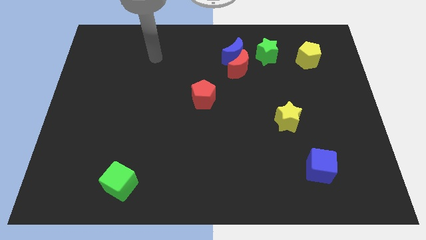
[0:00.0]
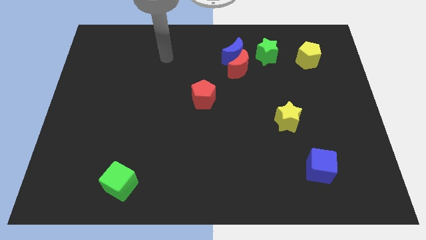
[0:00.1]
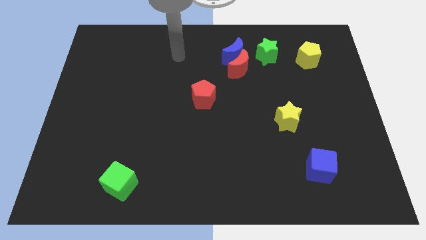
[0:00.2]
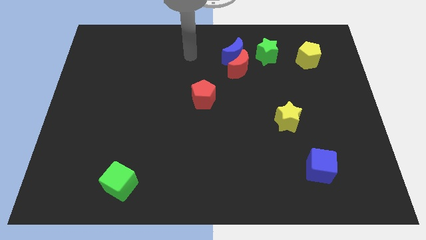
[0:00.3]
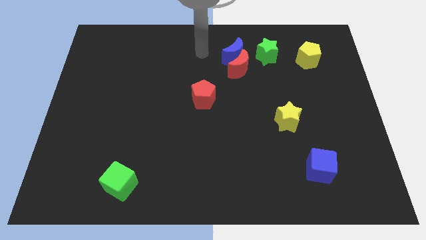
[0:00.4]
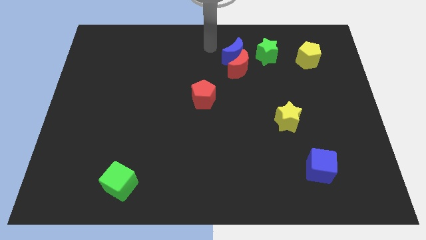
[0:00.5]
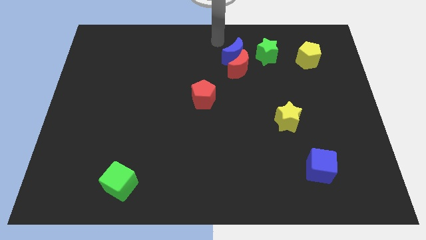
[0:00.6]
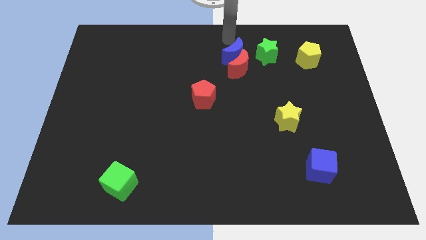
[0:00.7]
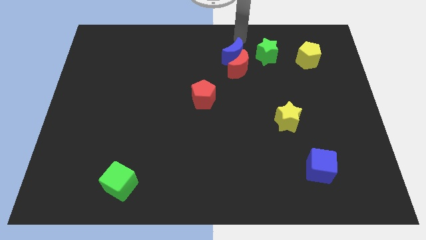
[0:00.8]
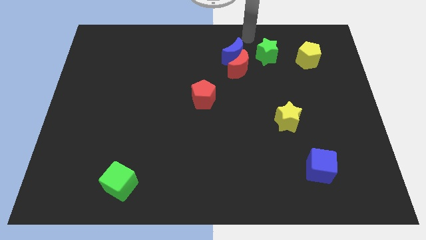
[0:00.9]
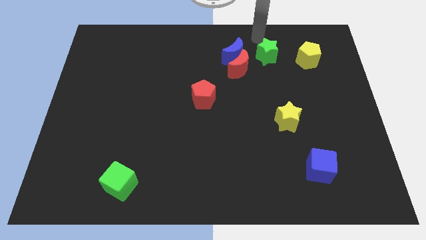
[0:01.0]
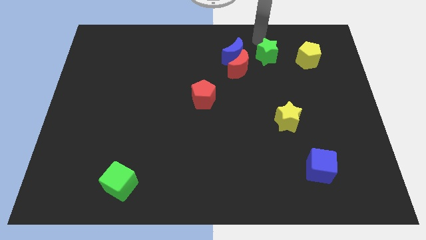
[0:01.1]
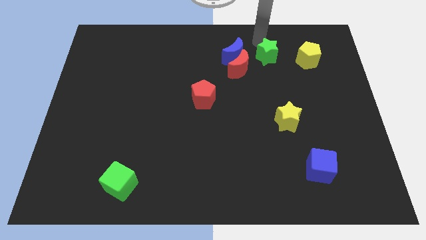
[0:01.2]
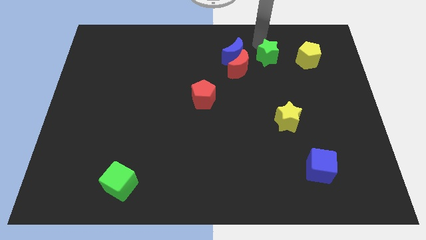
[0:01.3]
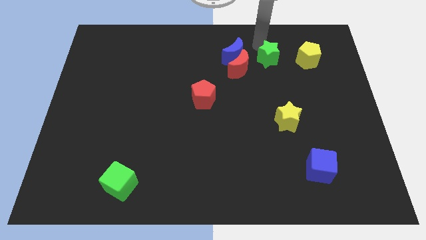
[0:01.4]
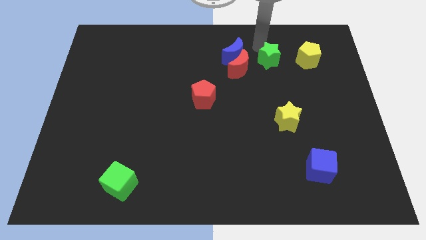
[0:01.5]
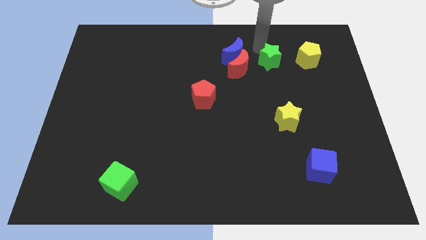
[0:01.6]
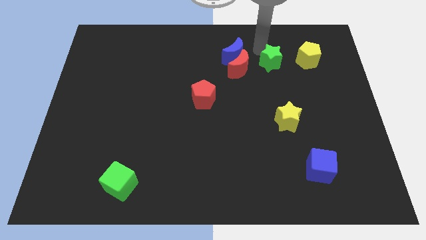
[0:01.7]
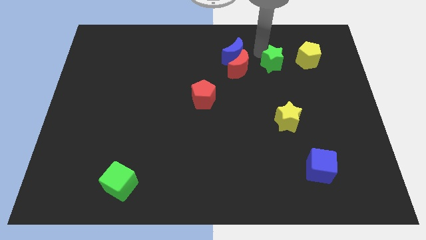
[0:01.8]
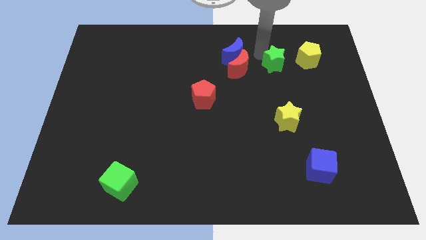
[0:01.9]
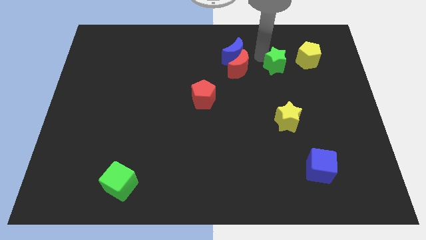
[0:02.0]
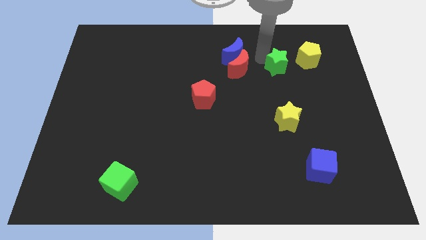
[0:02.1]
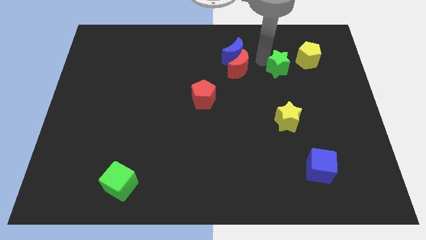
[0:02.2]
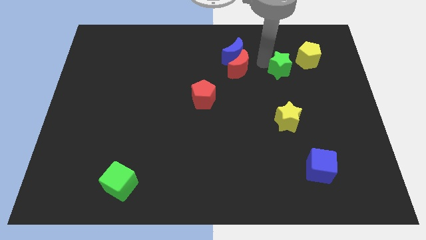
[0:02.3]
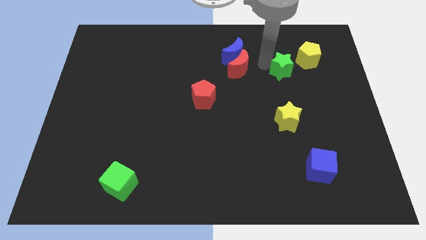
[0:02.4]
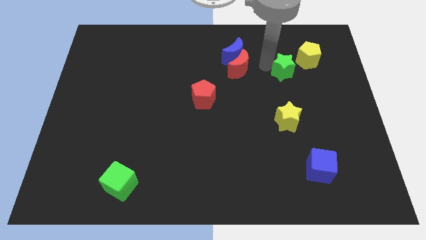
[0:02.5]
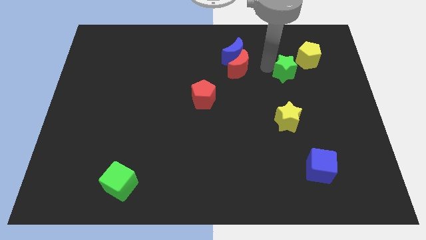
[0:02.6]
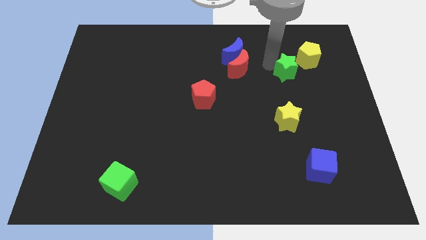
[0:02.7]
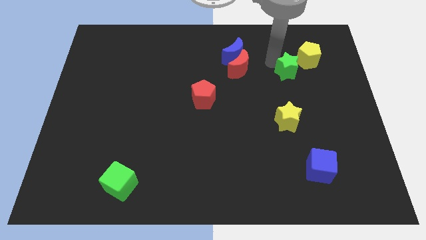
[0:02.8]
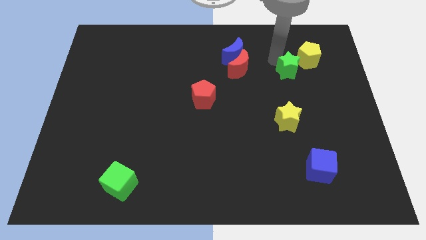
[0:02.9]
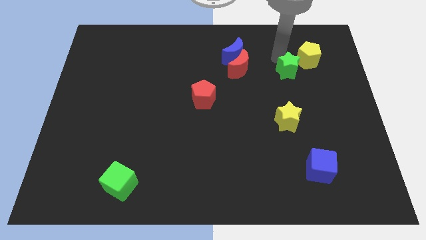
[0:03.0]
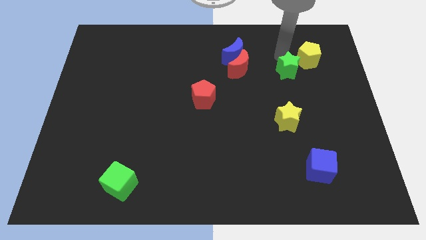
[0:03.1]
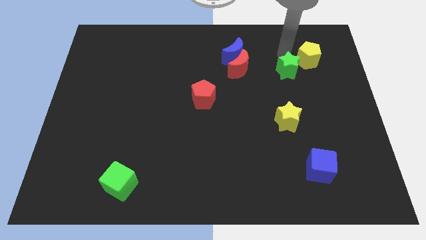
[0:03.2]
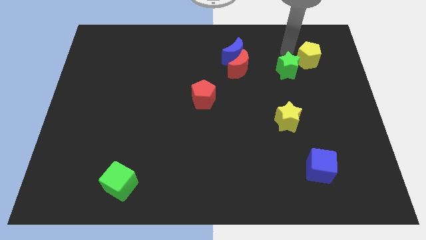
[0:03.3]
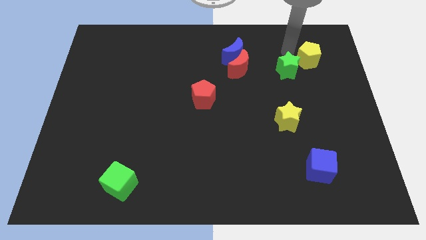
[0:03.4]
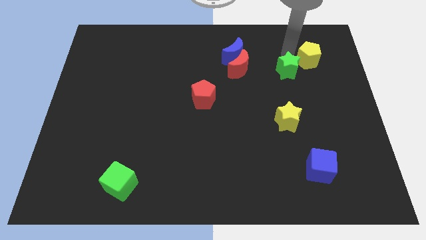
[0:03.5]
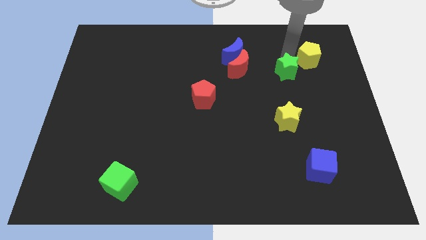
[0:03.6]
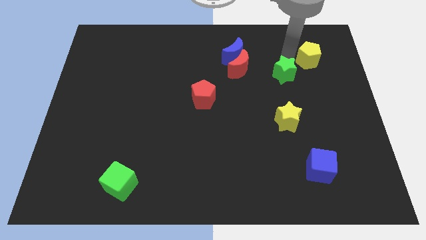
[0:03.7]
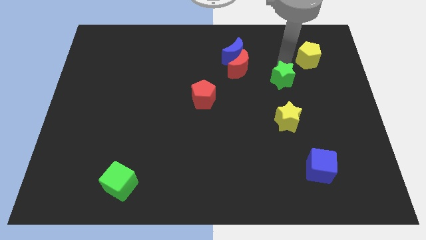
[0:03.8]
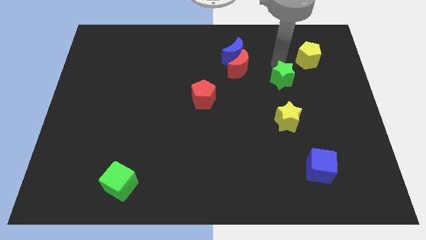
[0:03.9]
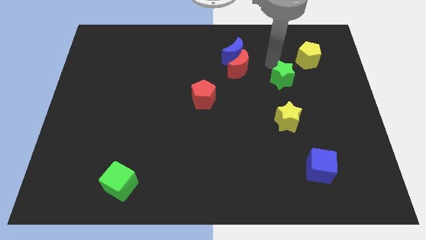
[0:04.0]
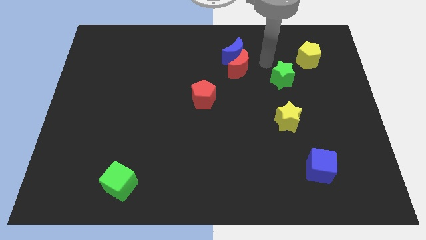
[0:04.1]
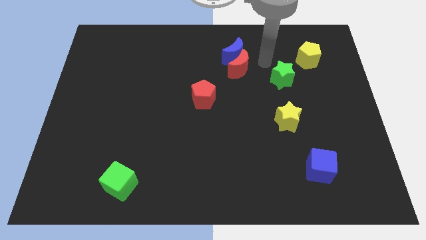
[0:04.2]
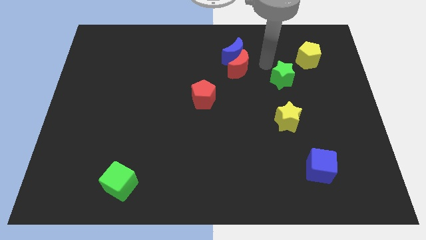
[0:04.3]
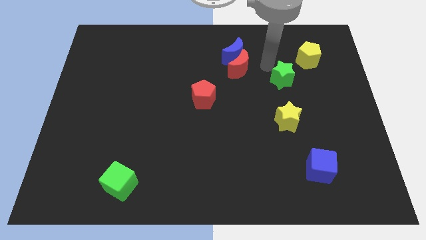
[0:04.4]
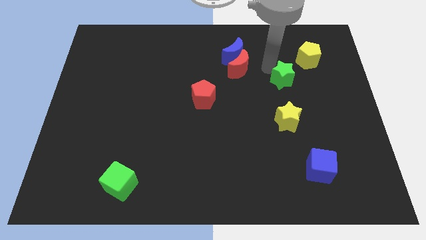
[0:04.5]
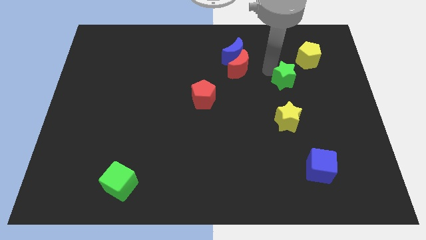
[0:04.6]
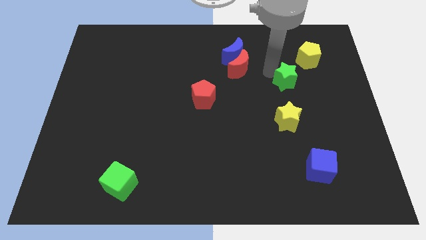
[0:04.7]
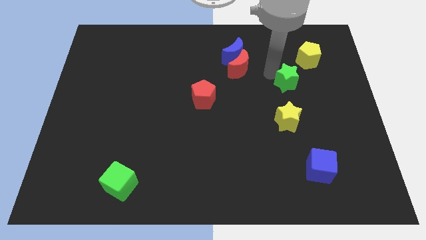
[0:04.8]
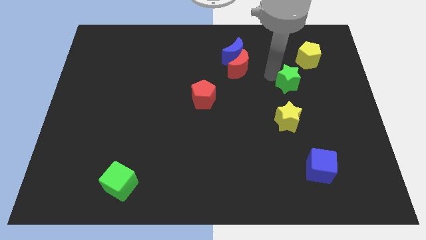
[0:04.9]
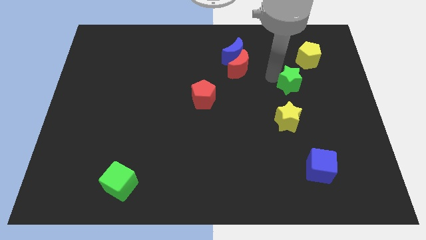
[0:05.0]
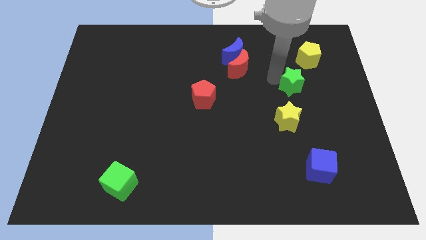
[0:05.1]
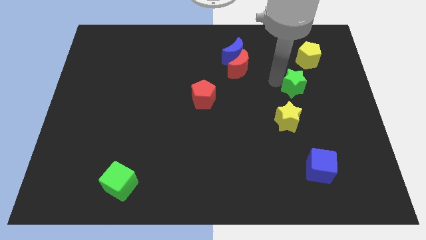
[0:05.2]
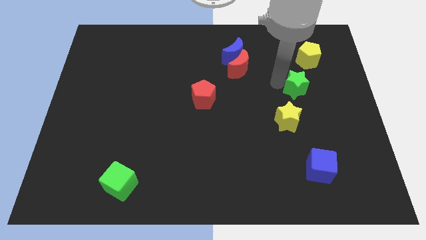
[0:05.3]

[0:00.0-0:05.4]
put the green star diagonally up and to the right of the yellow star

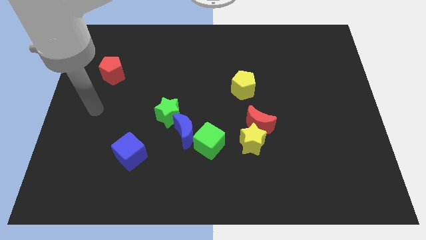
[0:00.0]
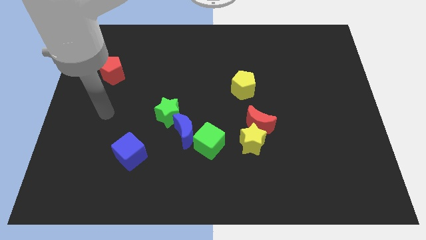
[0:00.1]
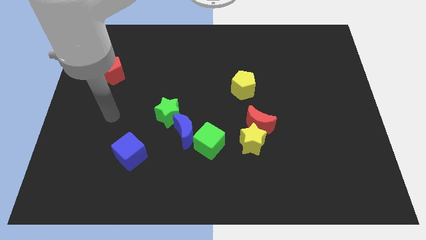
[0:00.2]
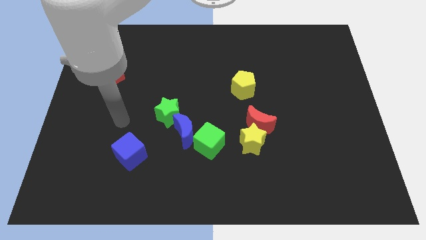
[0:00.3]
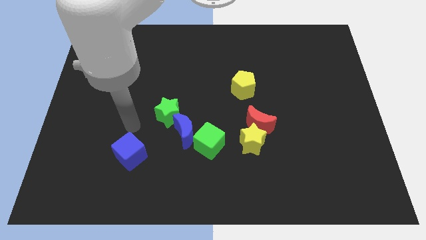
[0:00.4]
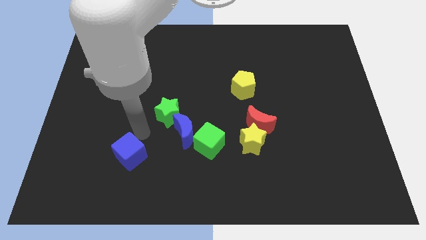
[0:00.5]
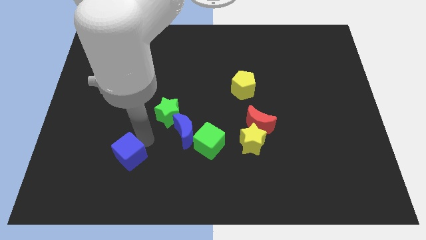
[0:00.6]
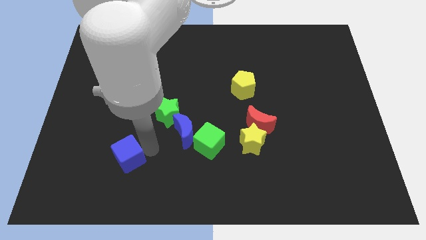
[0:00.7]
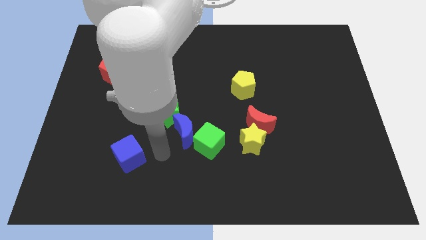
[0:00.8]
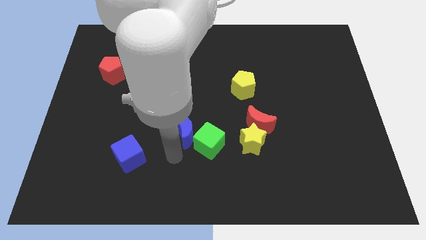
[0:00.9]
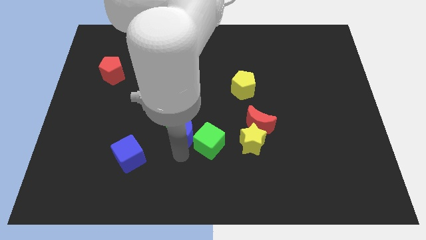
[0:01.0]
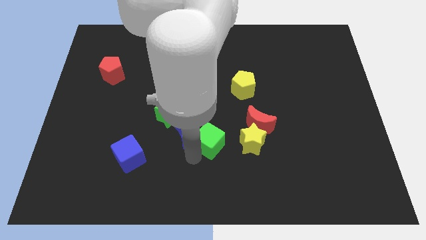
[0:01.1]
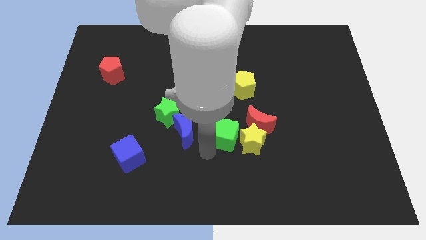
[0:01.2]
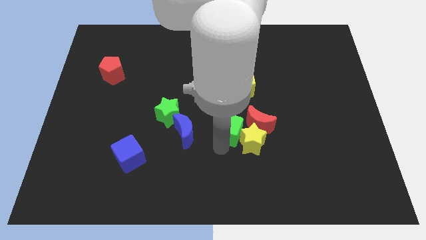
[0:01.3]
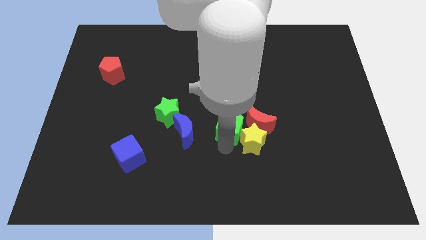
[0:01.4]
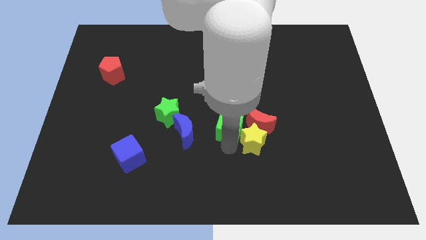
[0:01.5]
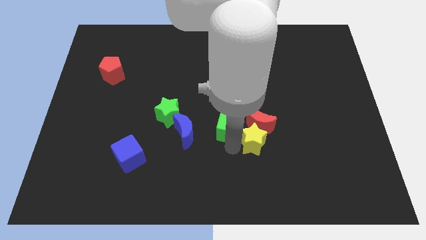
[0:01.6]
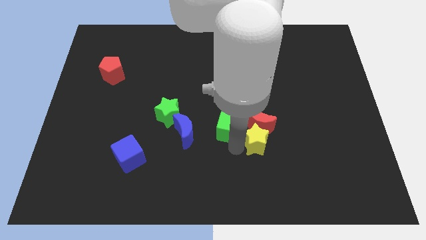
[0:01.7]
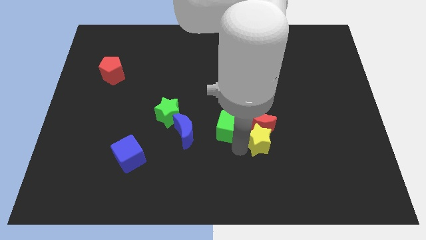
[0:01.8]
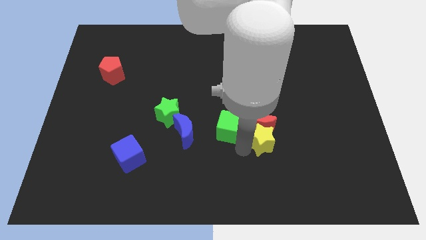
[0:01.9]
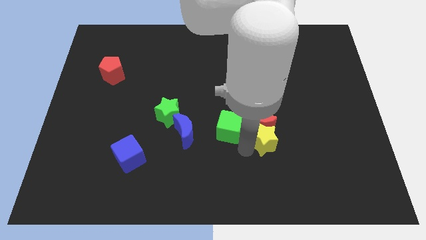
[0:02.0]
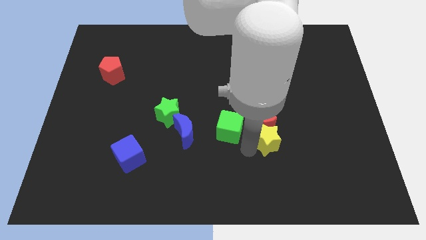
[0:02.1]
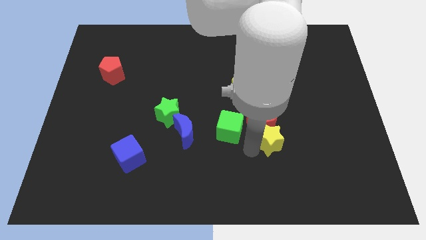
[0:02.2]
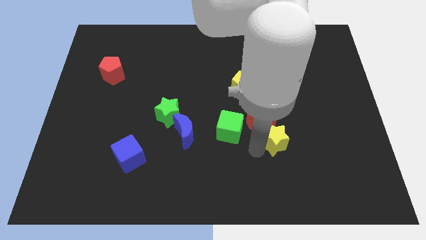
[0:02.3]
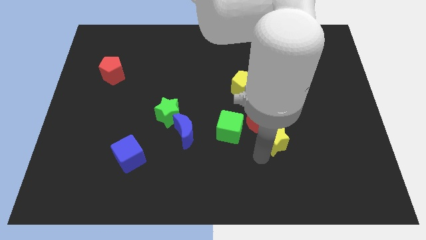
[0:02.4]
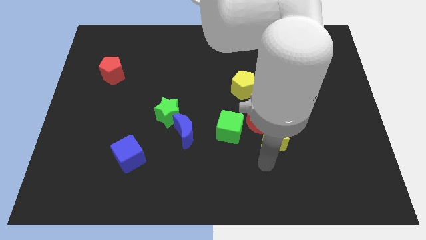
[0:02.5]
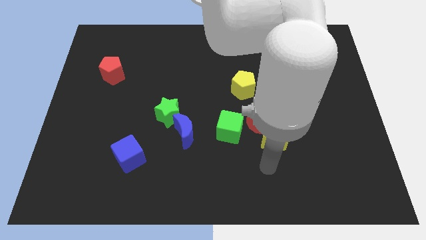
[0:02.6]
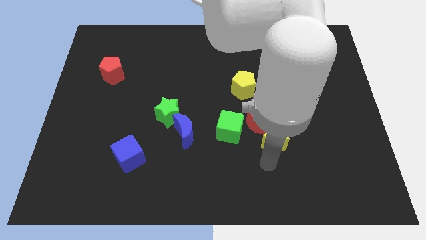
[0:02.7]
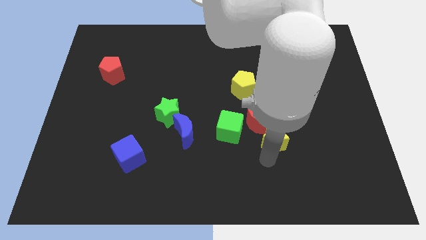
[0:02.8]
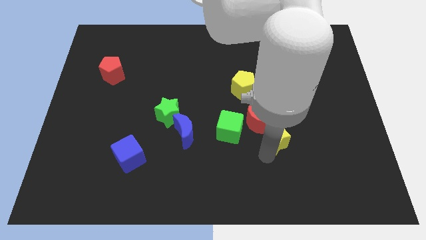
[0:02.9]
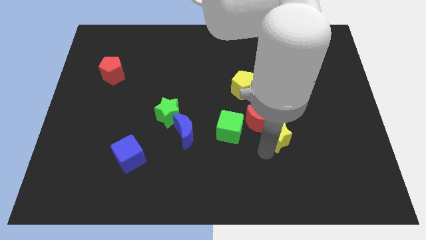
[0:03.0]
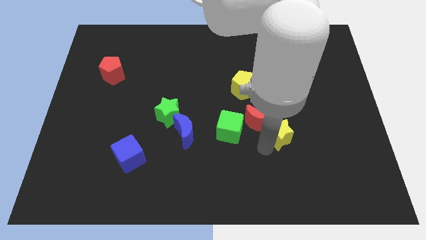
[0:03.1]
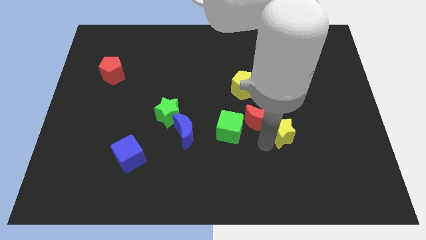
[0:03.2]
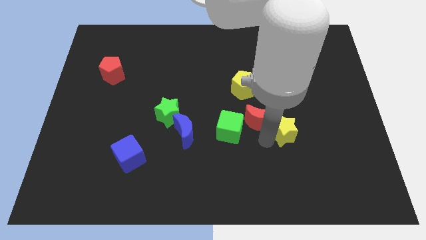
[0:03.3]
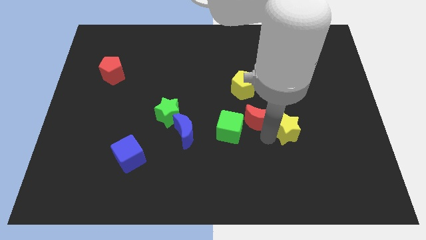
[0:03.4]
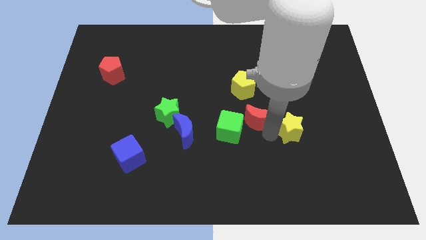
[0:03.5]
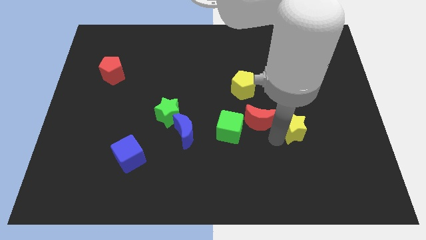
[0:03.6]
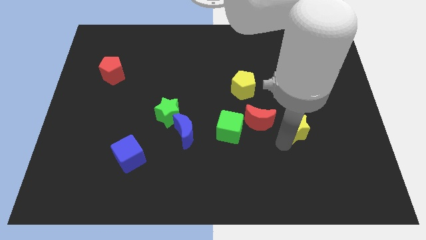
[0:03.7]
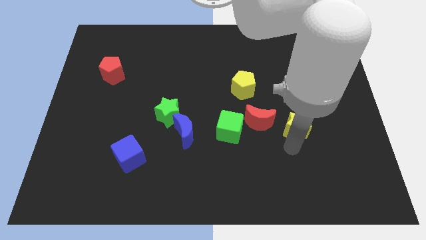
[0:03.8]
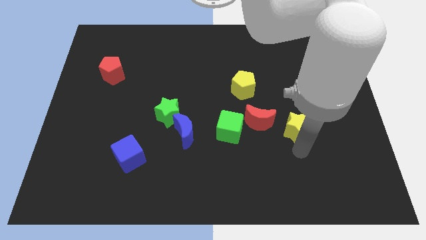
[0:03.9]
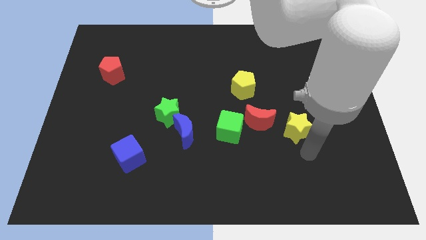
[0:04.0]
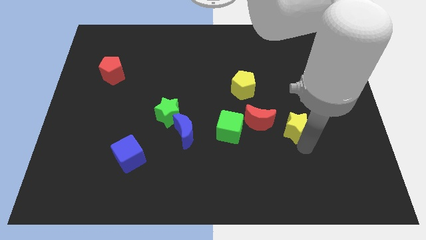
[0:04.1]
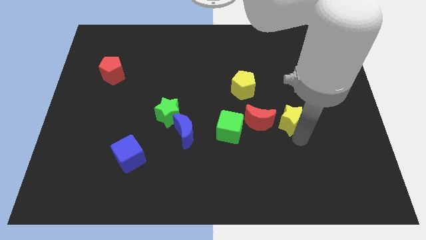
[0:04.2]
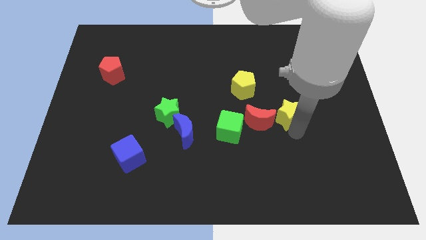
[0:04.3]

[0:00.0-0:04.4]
put the yellow star diagonally up and to the right of the red moon
